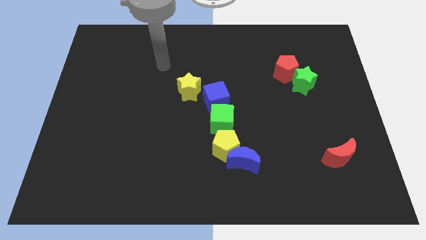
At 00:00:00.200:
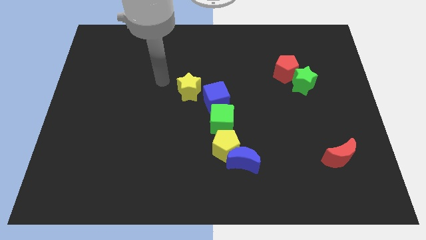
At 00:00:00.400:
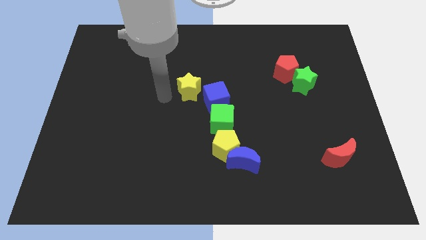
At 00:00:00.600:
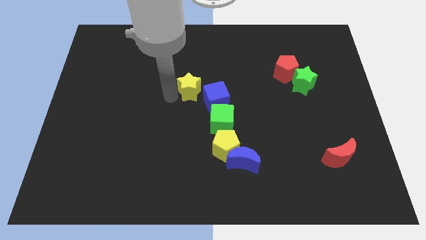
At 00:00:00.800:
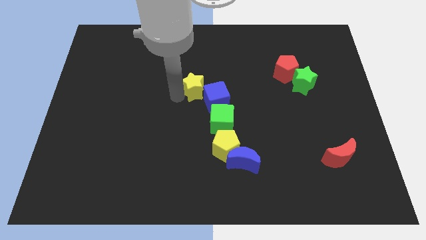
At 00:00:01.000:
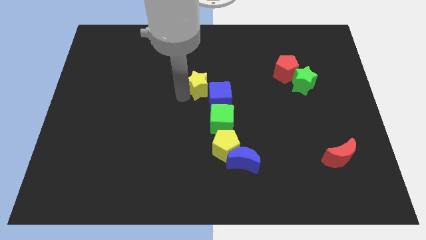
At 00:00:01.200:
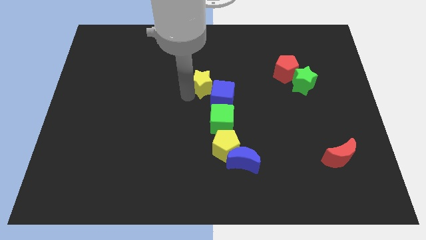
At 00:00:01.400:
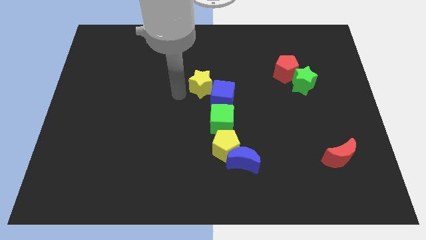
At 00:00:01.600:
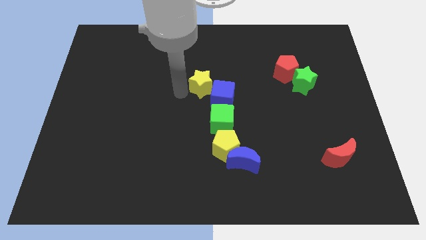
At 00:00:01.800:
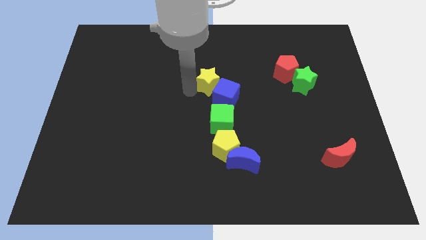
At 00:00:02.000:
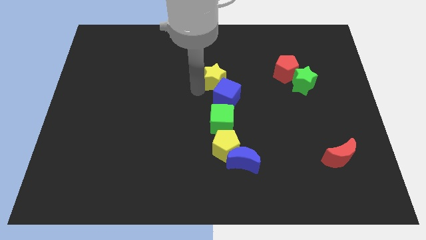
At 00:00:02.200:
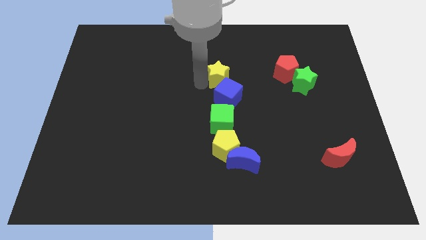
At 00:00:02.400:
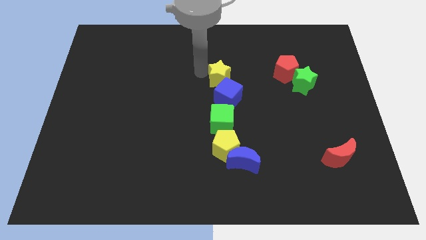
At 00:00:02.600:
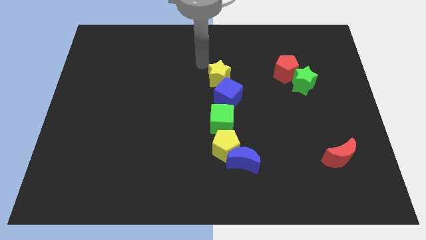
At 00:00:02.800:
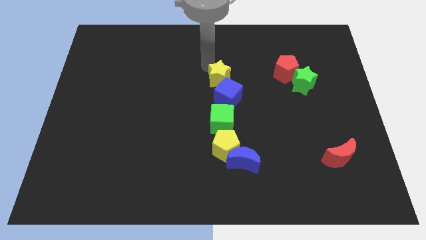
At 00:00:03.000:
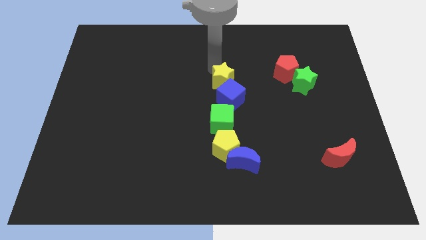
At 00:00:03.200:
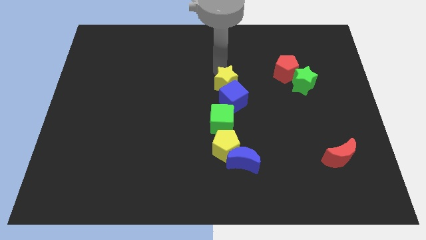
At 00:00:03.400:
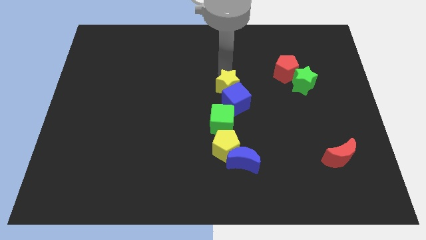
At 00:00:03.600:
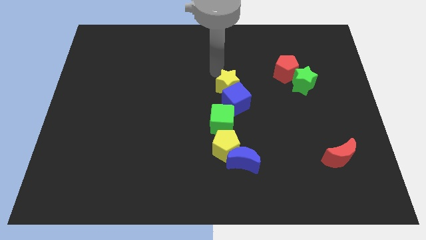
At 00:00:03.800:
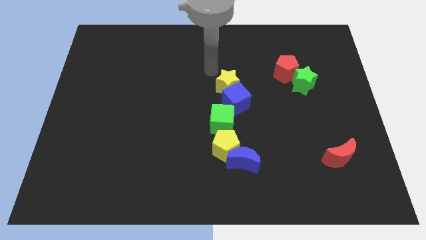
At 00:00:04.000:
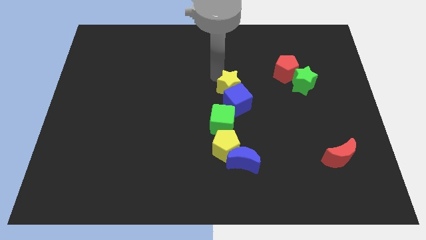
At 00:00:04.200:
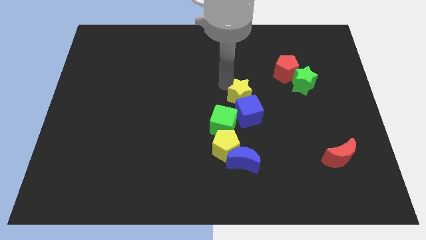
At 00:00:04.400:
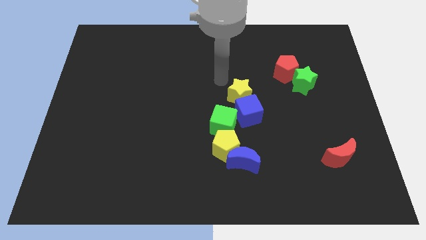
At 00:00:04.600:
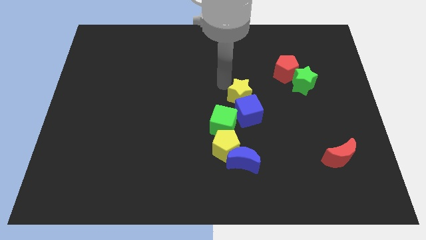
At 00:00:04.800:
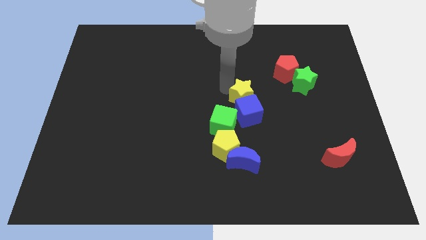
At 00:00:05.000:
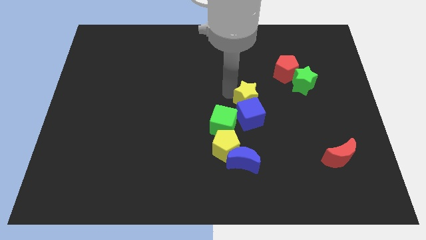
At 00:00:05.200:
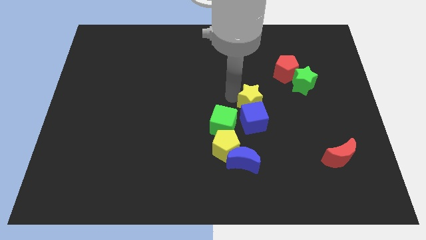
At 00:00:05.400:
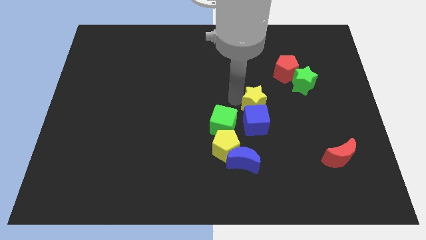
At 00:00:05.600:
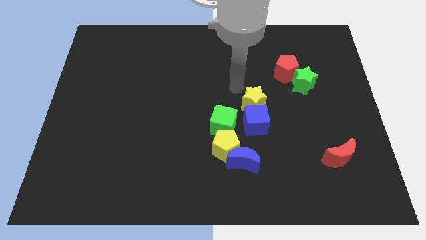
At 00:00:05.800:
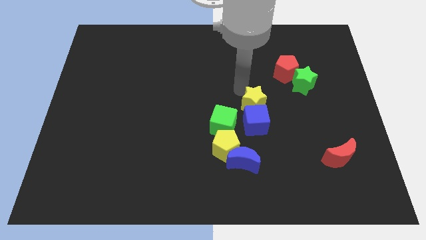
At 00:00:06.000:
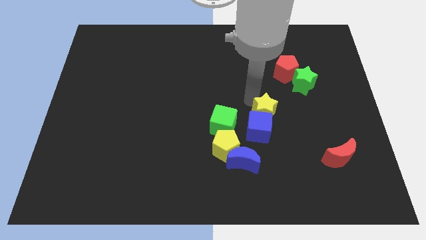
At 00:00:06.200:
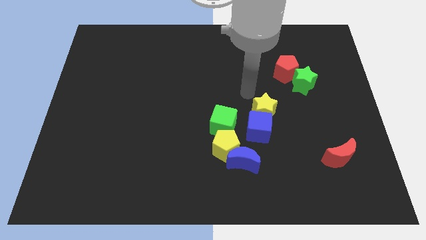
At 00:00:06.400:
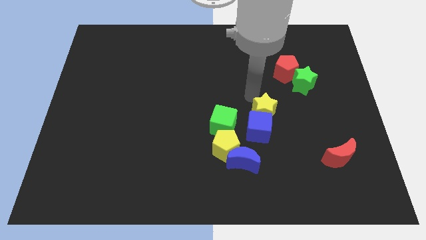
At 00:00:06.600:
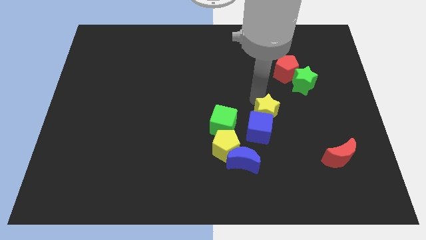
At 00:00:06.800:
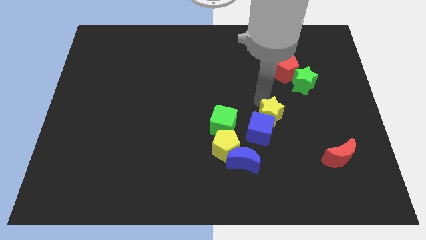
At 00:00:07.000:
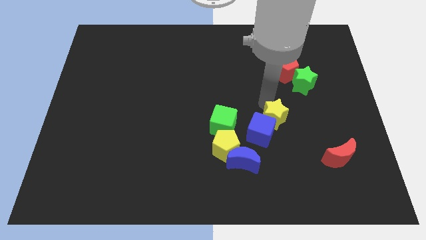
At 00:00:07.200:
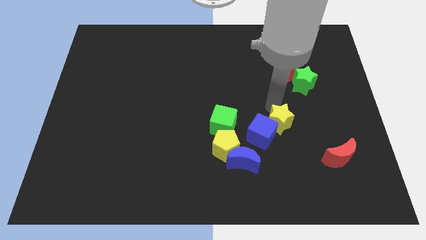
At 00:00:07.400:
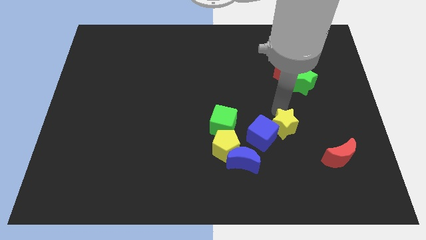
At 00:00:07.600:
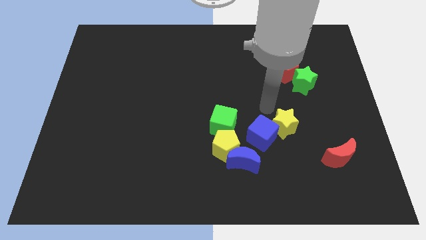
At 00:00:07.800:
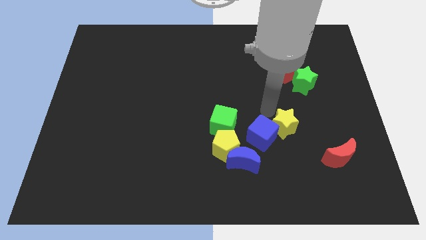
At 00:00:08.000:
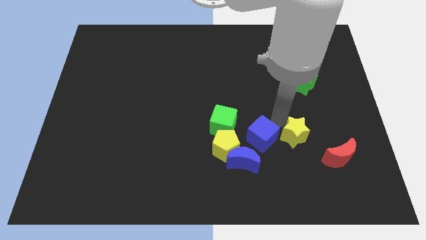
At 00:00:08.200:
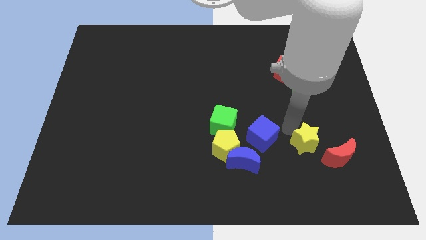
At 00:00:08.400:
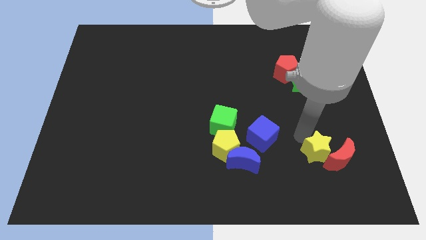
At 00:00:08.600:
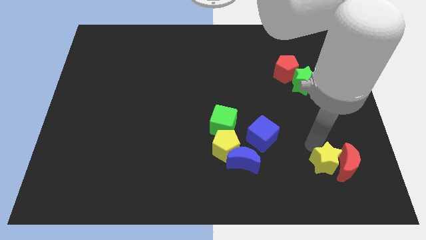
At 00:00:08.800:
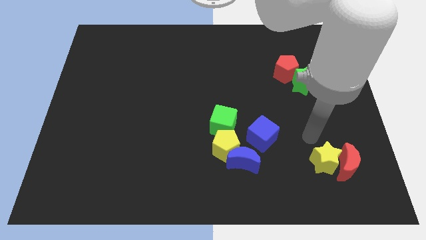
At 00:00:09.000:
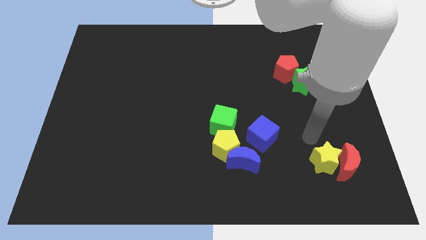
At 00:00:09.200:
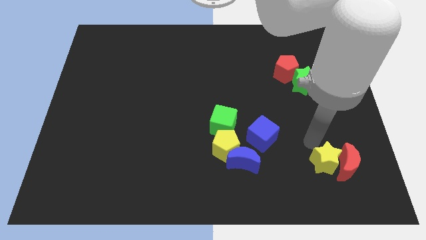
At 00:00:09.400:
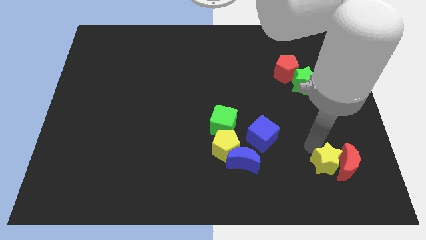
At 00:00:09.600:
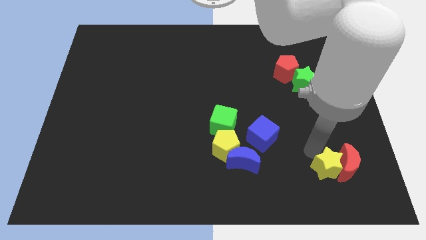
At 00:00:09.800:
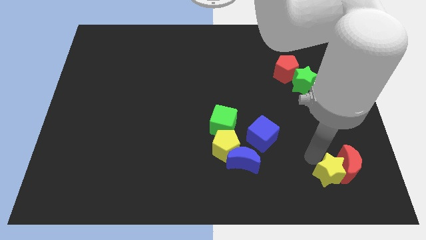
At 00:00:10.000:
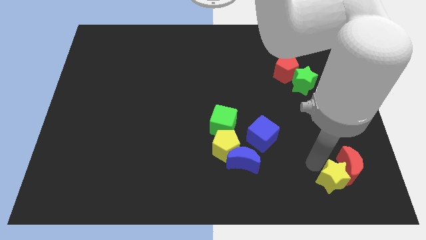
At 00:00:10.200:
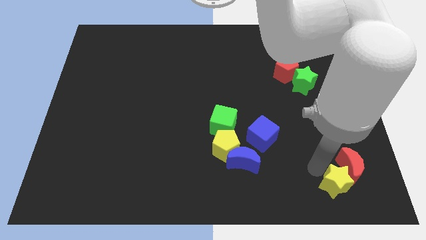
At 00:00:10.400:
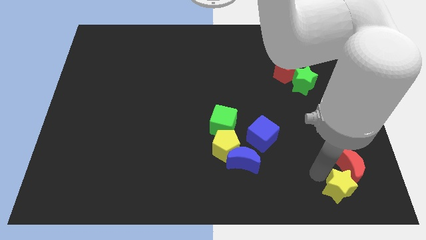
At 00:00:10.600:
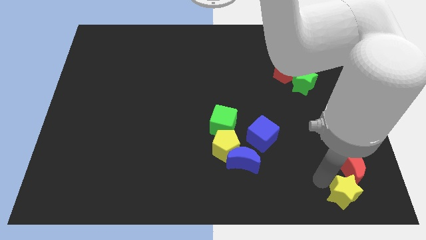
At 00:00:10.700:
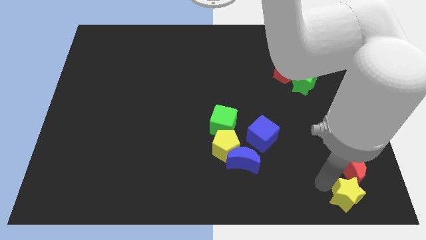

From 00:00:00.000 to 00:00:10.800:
push the yellow star to the bottom right of the board

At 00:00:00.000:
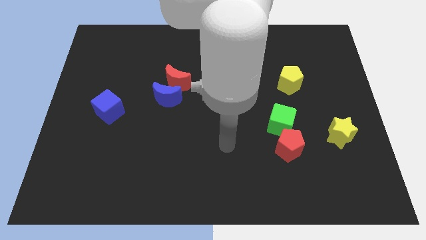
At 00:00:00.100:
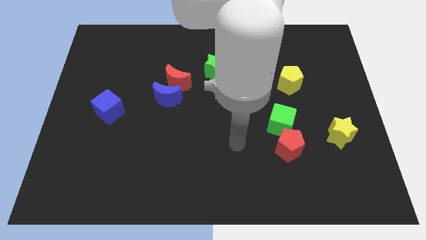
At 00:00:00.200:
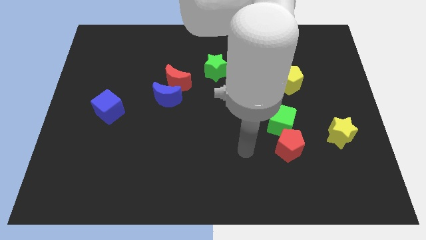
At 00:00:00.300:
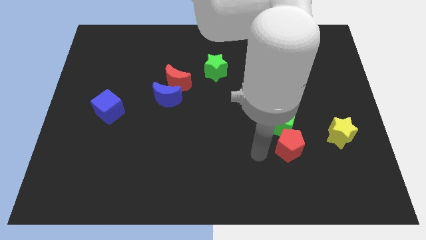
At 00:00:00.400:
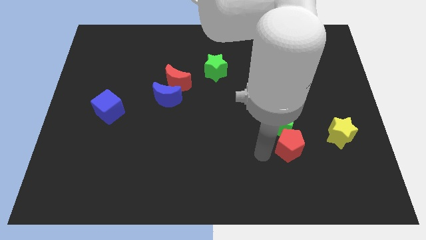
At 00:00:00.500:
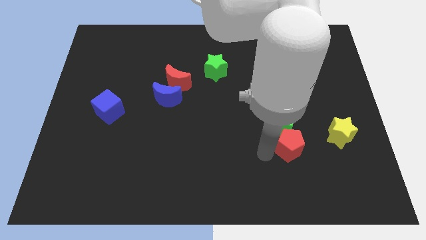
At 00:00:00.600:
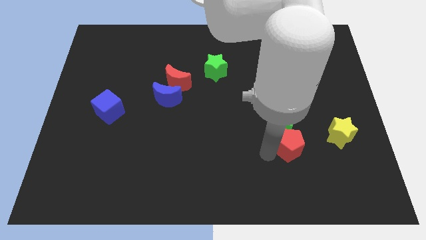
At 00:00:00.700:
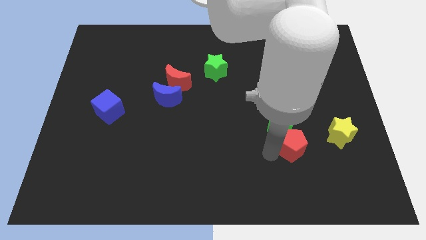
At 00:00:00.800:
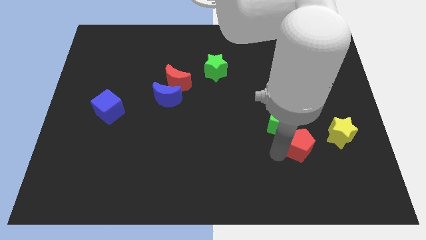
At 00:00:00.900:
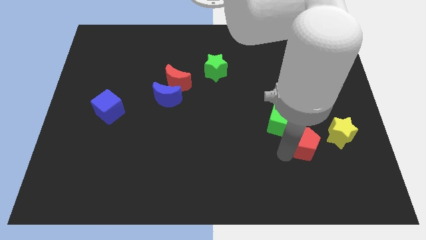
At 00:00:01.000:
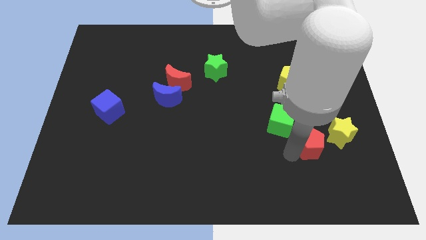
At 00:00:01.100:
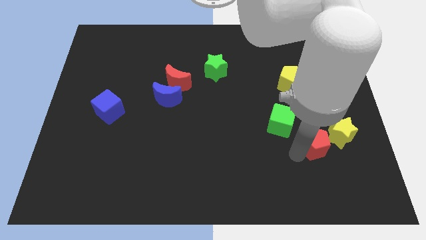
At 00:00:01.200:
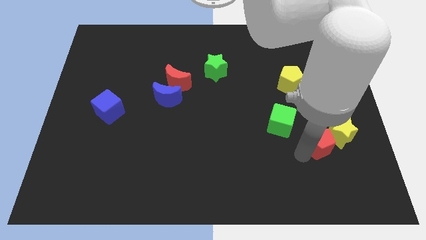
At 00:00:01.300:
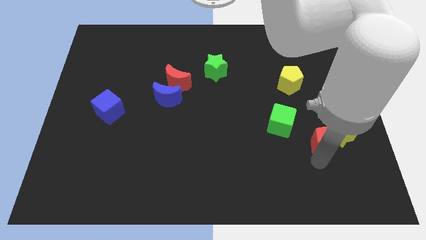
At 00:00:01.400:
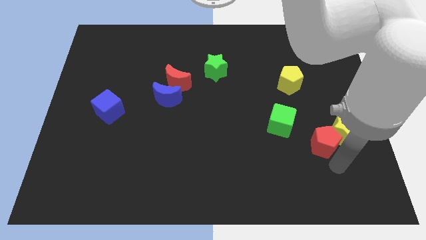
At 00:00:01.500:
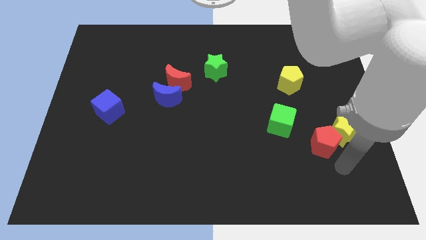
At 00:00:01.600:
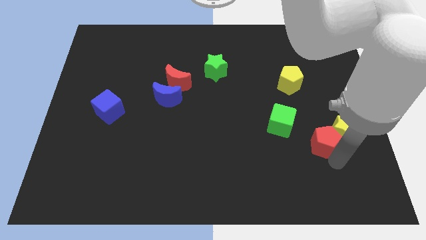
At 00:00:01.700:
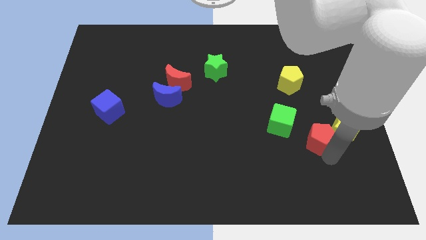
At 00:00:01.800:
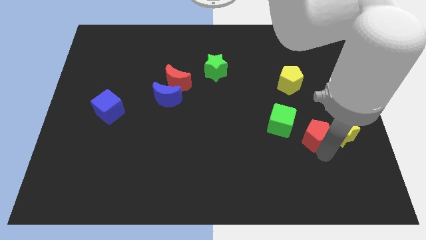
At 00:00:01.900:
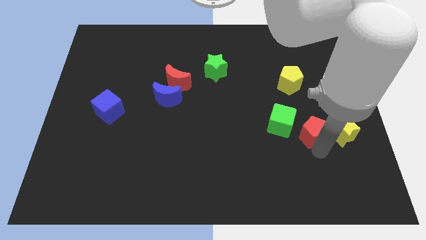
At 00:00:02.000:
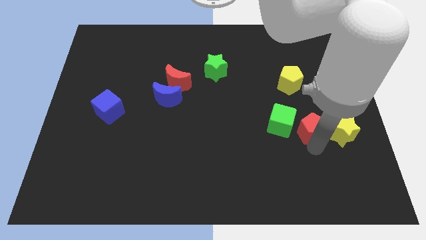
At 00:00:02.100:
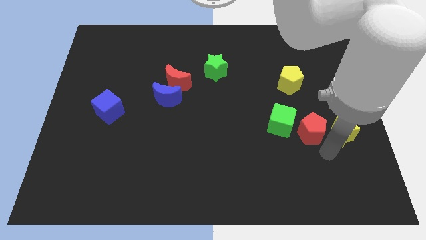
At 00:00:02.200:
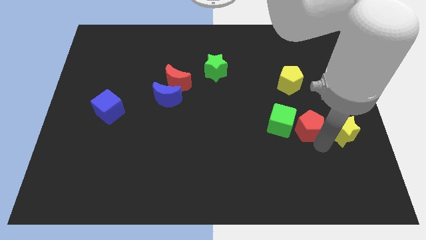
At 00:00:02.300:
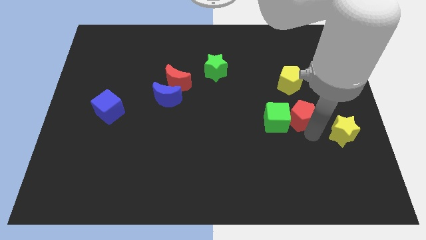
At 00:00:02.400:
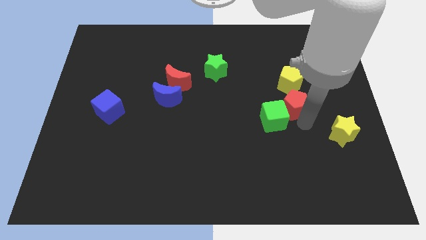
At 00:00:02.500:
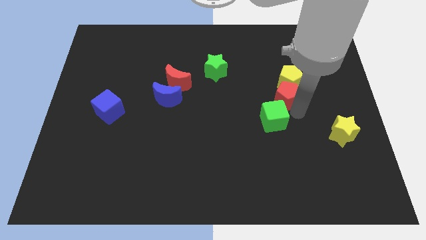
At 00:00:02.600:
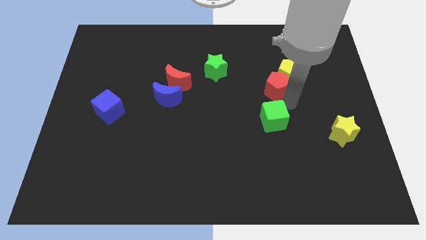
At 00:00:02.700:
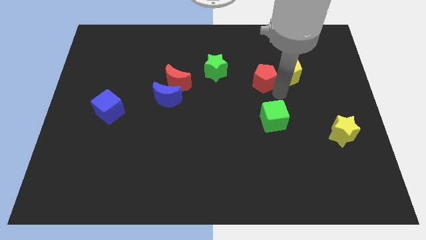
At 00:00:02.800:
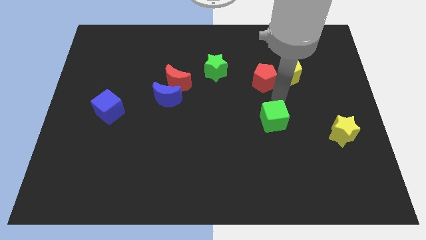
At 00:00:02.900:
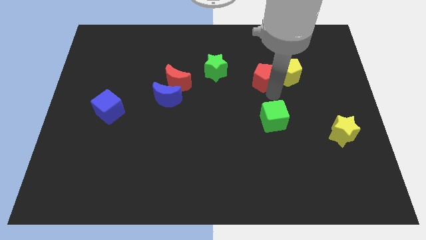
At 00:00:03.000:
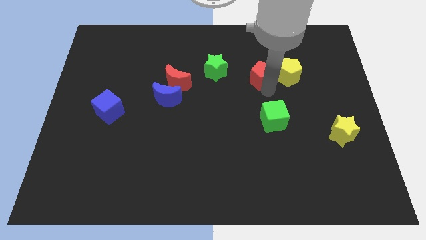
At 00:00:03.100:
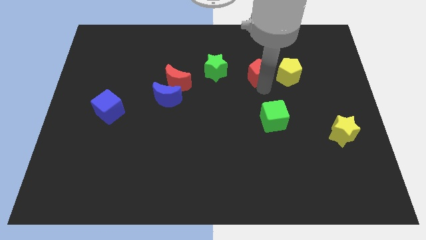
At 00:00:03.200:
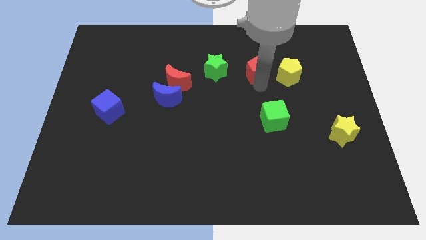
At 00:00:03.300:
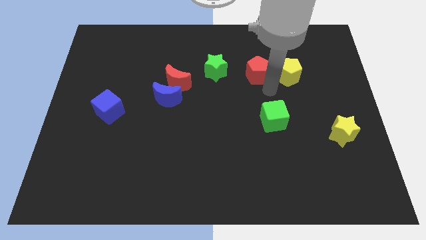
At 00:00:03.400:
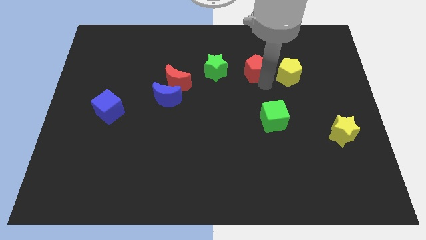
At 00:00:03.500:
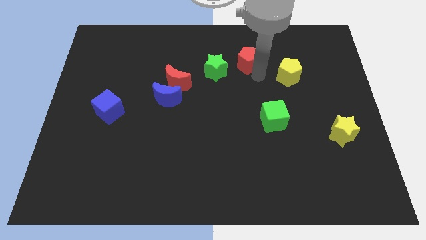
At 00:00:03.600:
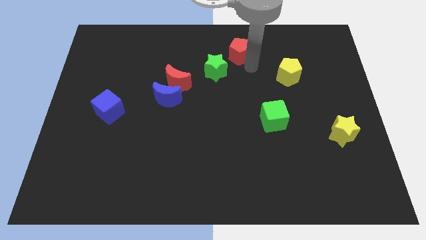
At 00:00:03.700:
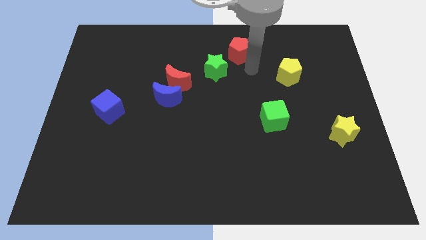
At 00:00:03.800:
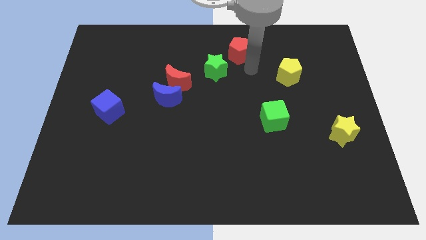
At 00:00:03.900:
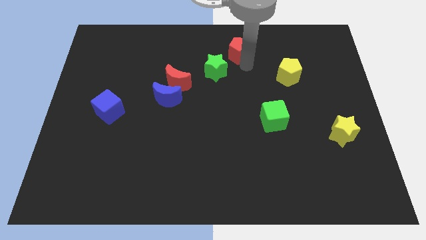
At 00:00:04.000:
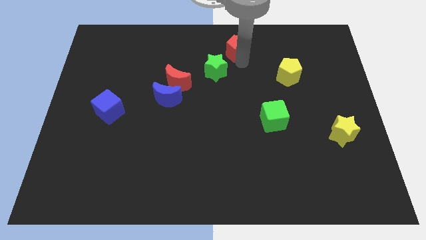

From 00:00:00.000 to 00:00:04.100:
put the red pentagon to the top side
